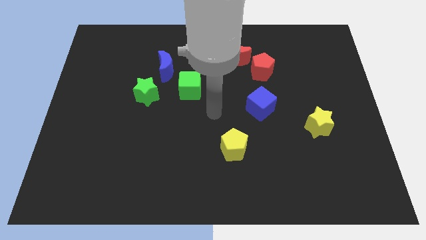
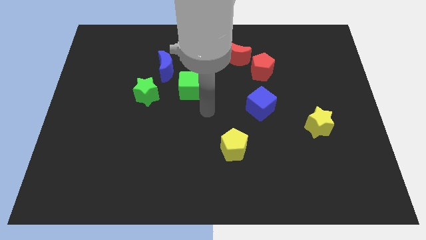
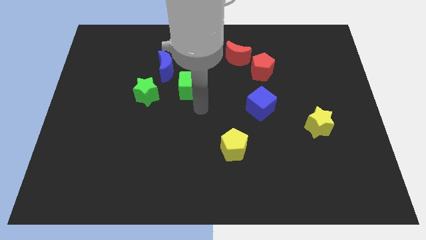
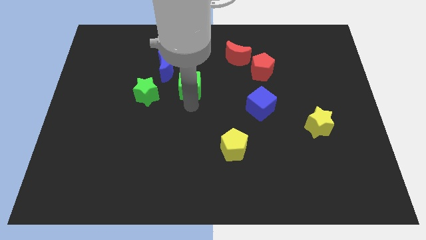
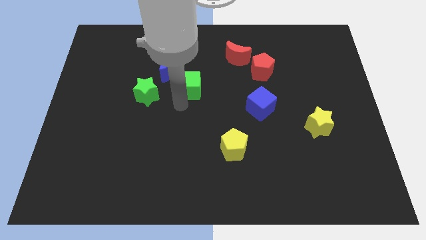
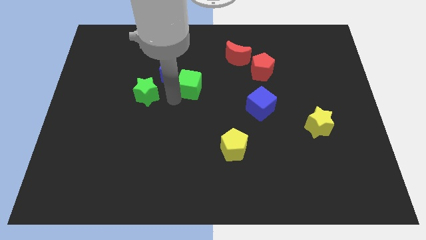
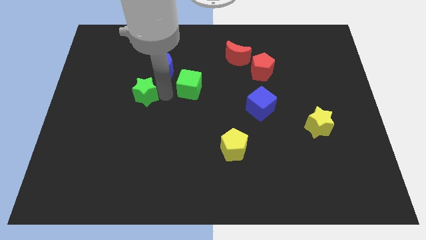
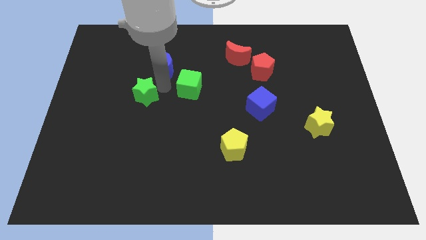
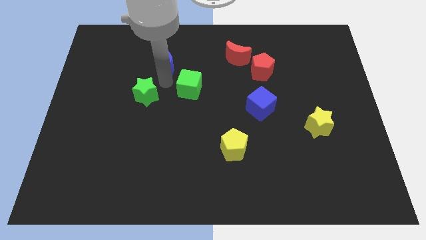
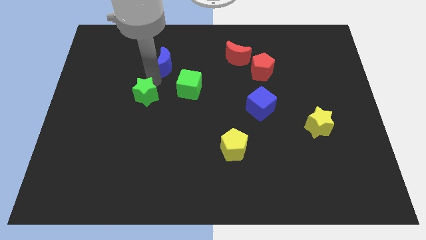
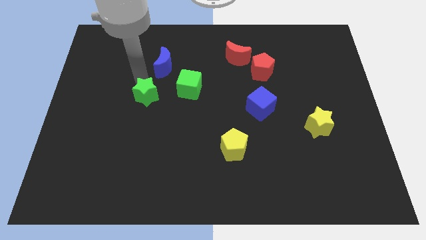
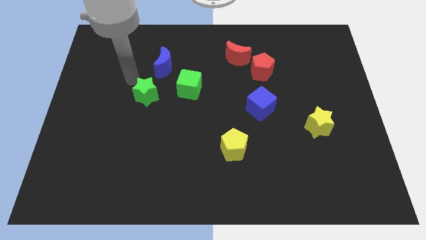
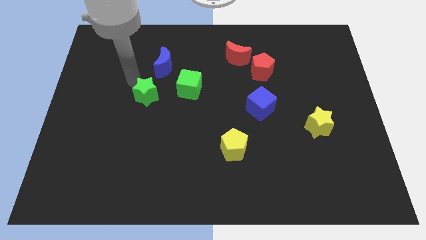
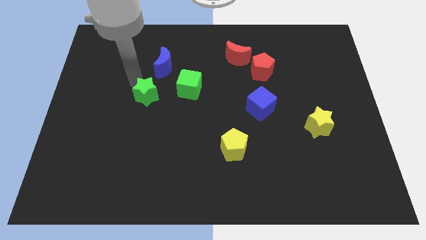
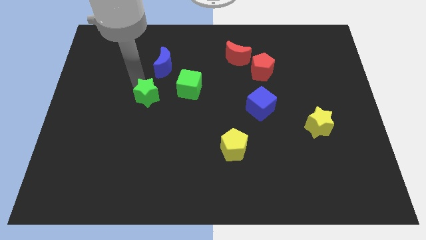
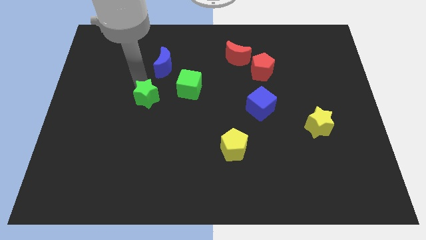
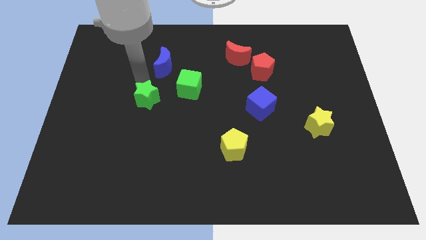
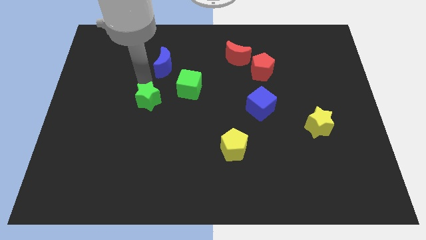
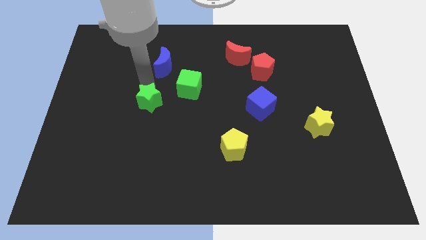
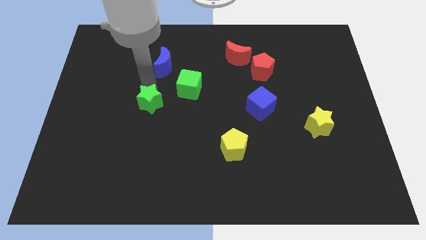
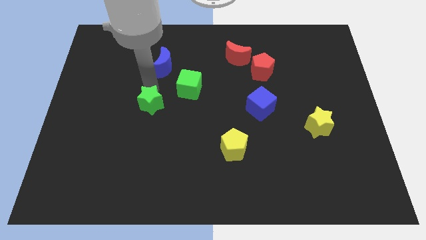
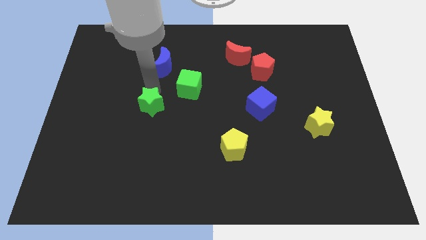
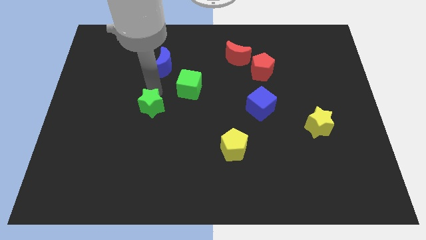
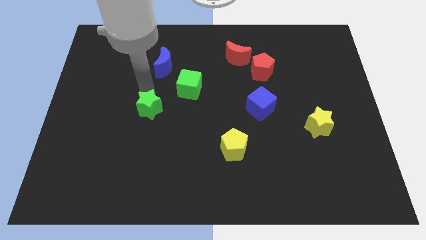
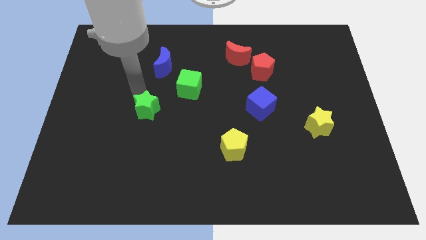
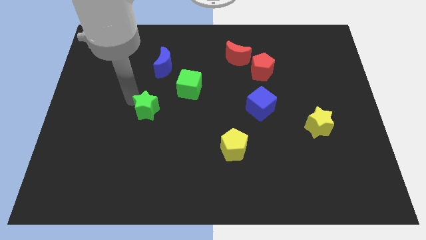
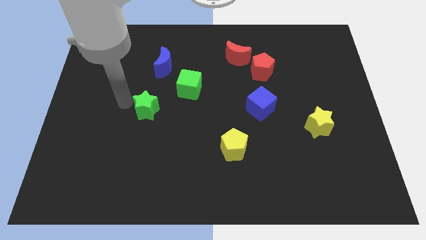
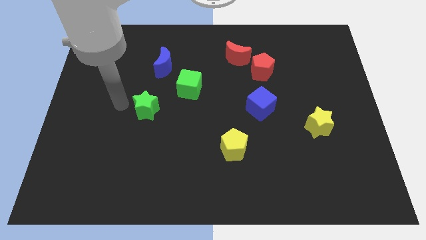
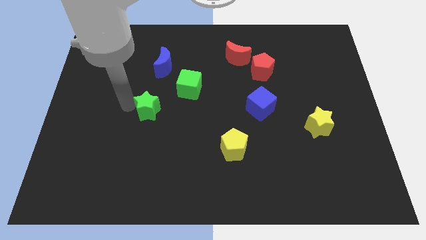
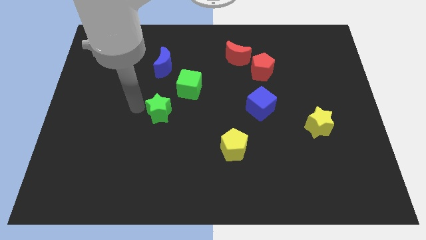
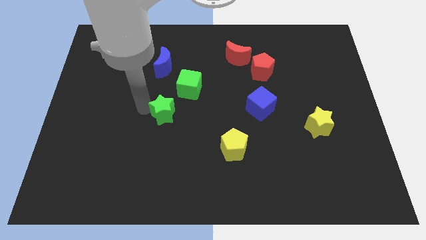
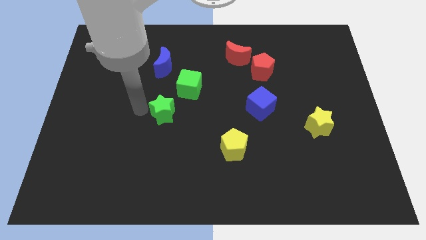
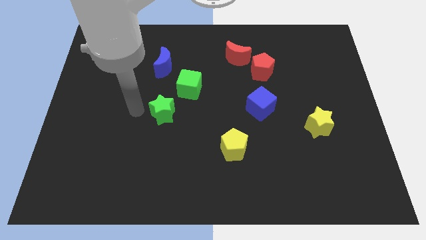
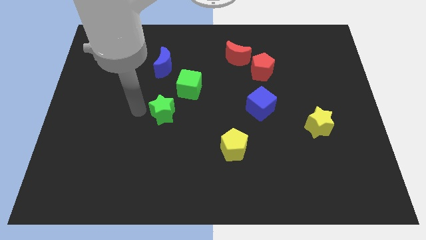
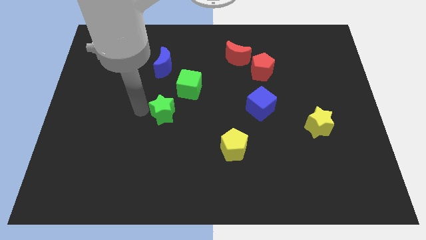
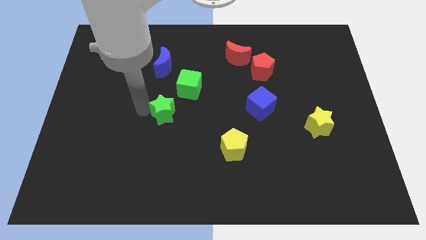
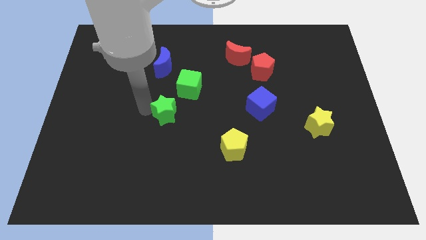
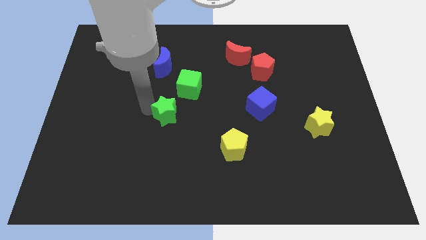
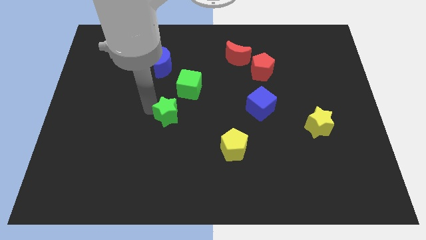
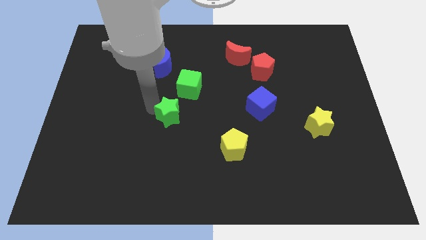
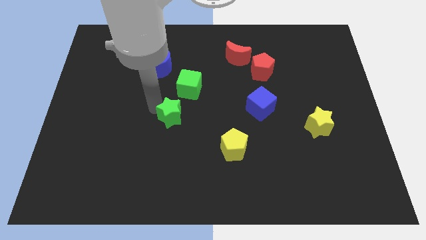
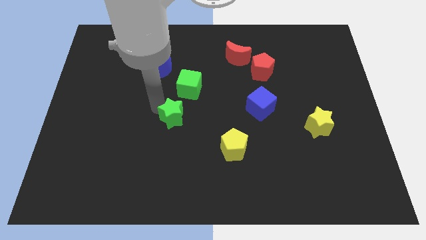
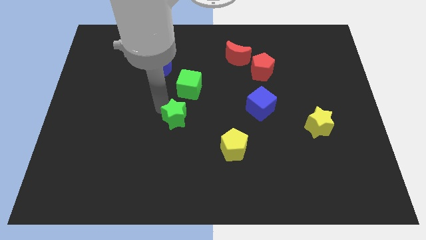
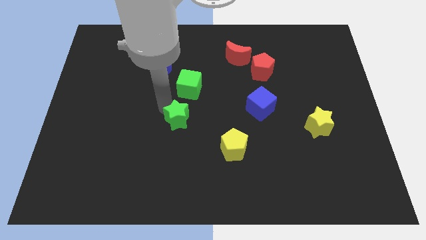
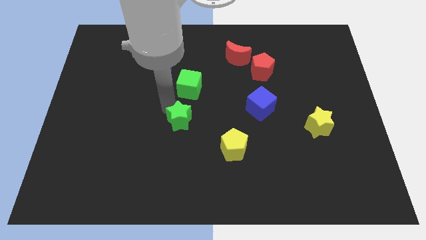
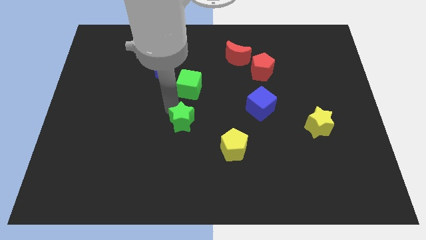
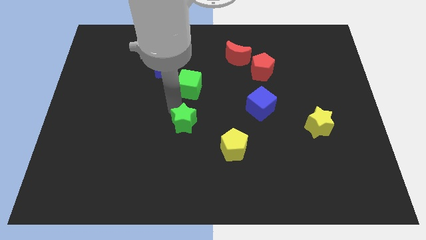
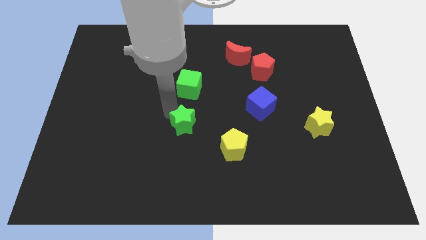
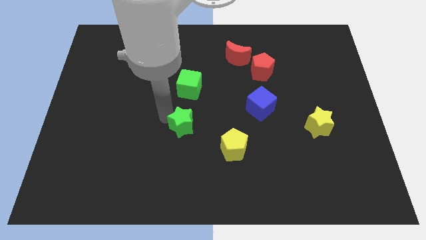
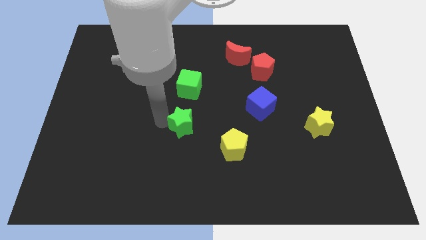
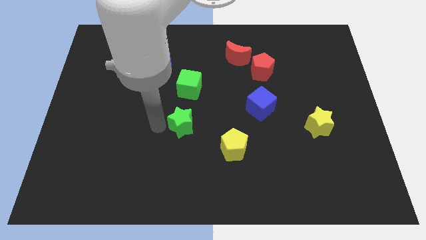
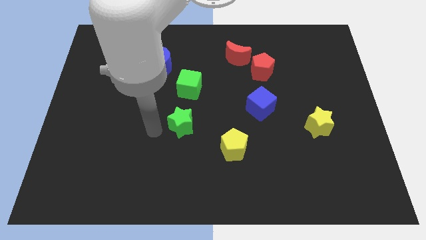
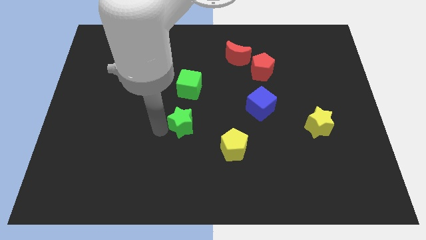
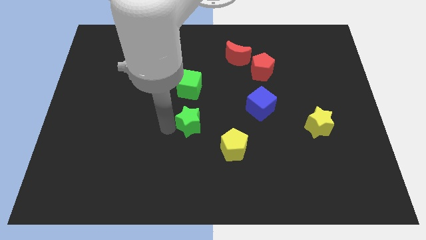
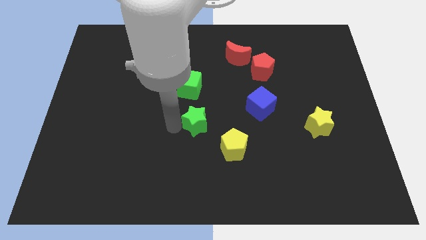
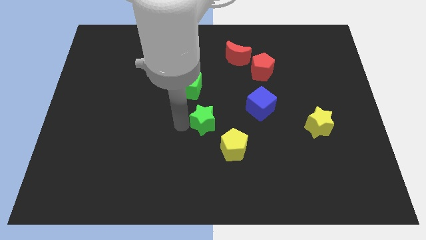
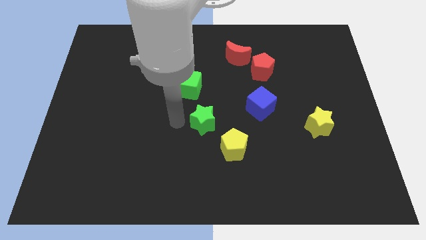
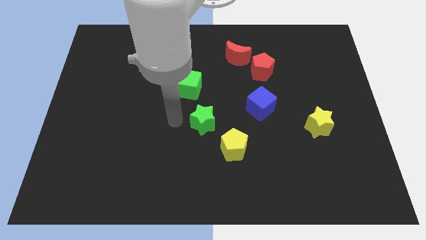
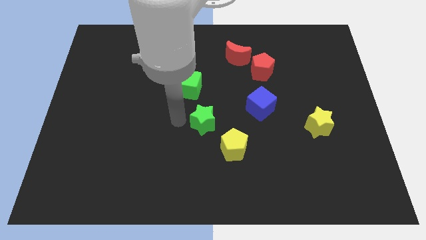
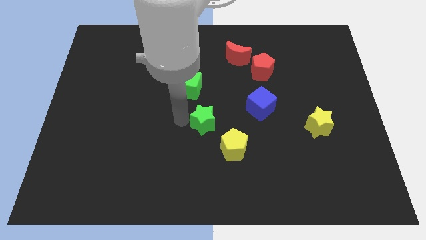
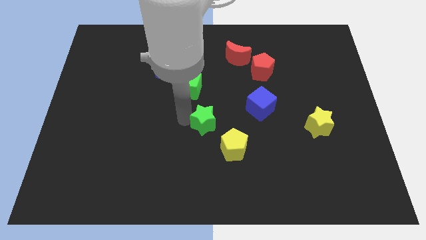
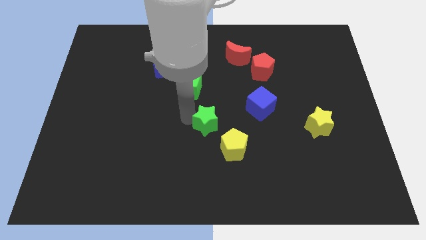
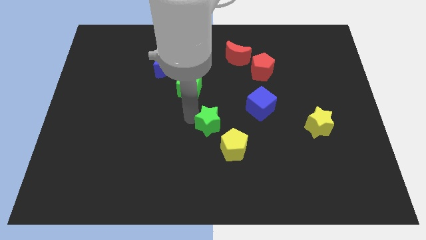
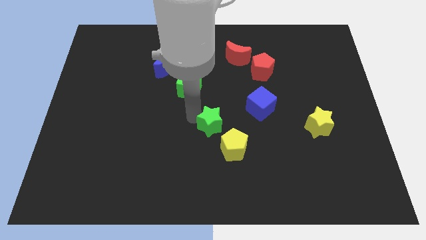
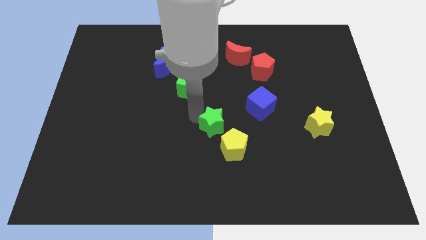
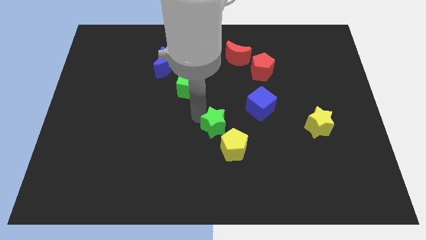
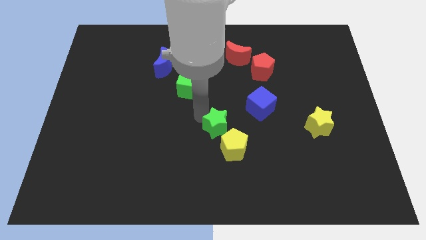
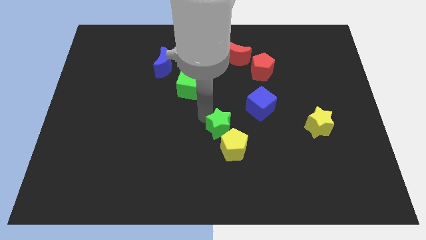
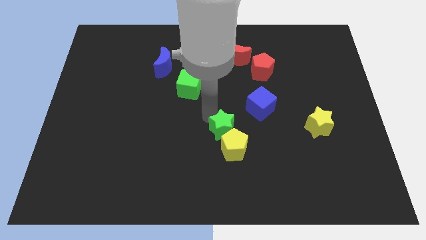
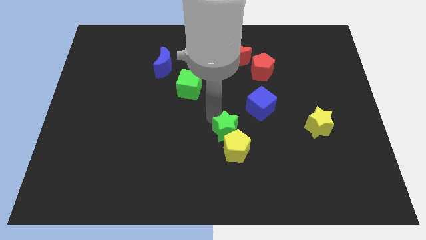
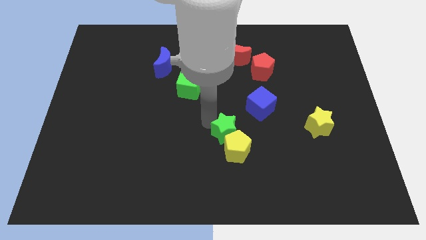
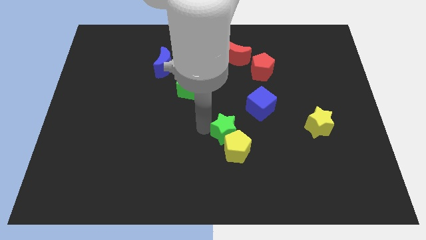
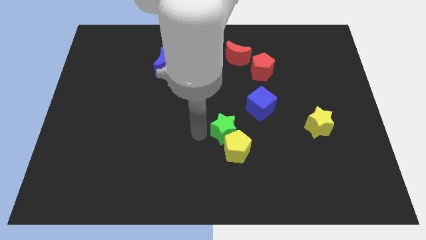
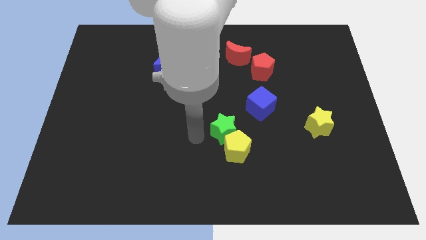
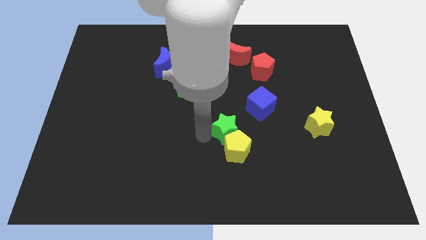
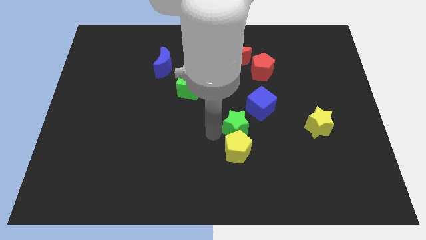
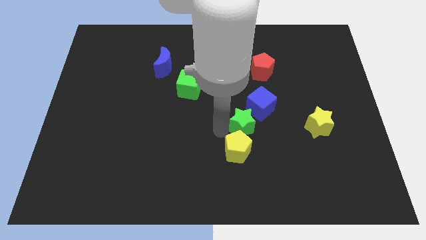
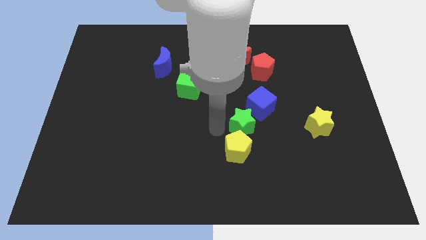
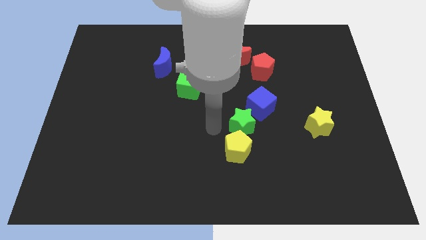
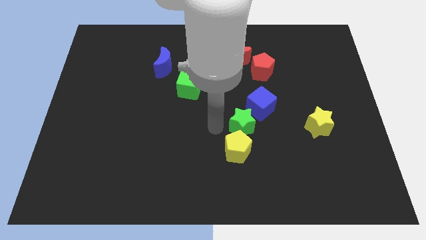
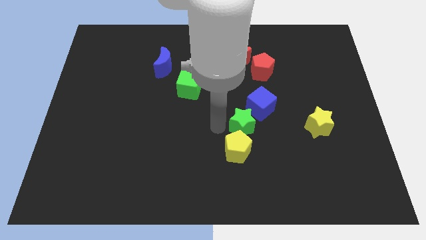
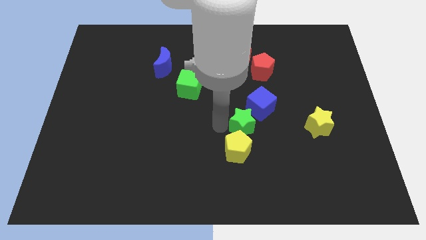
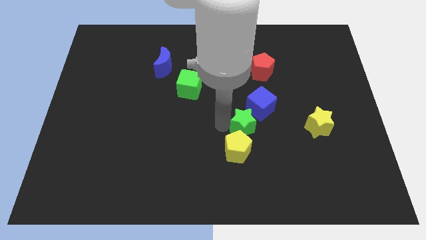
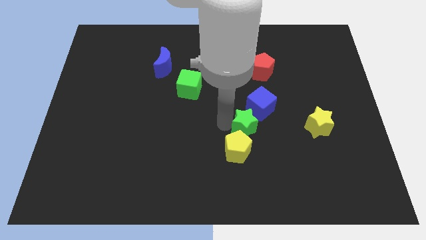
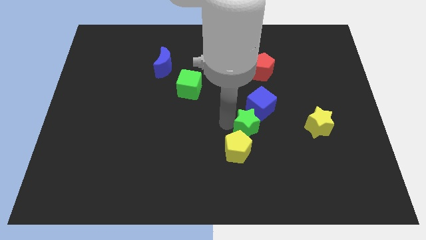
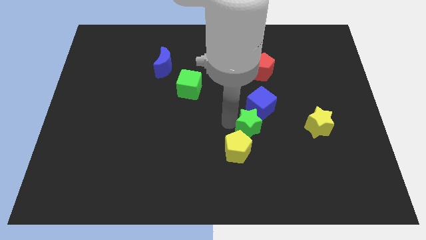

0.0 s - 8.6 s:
push the green star to the left of the yellow star
